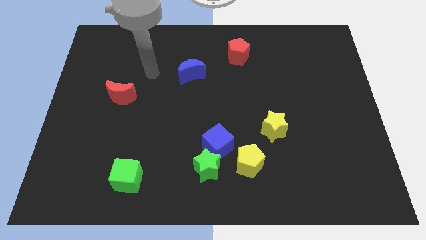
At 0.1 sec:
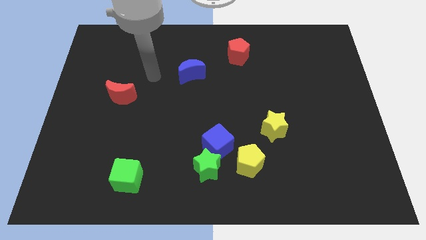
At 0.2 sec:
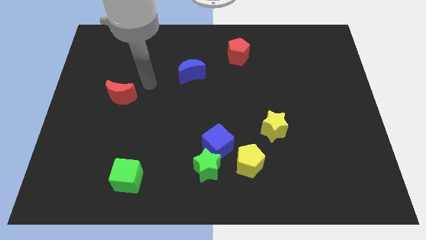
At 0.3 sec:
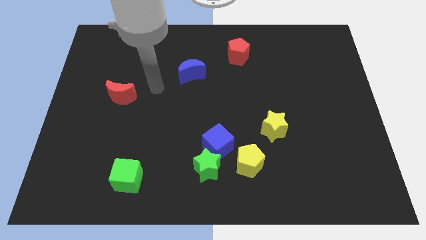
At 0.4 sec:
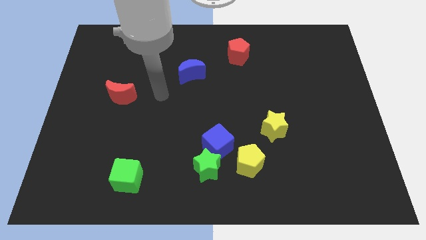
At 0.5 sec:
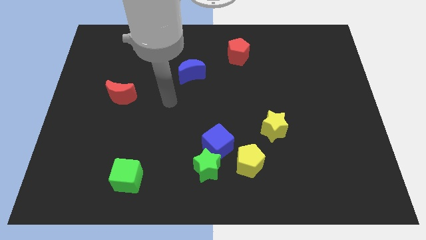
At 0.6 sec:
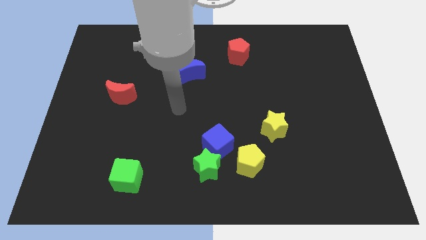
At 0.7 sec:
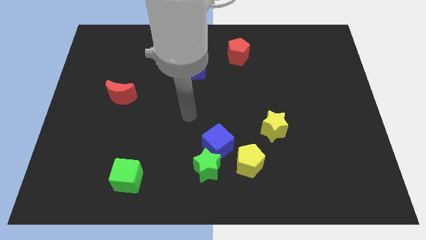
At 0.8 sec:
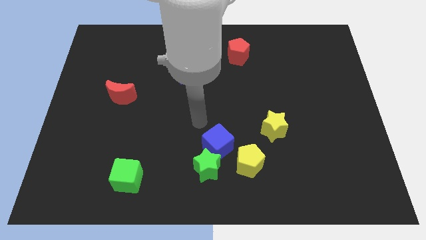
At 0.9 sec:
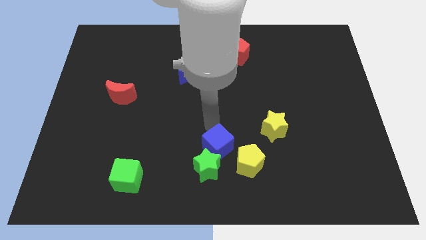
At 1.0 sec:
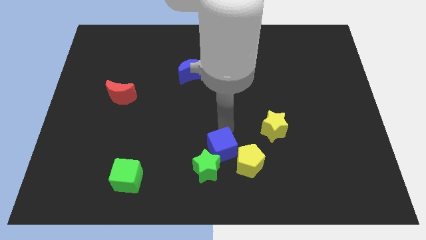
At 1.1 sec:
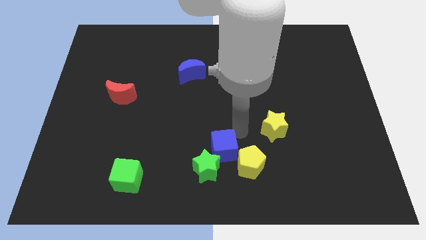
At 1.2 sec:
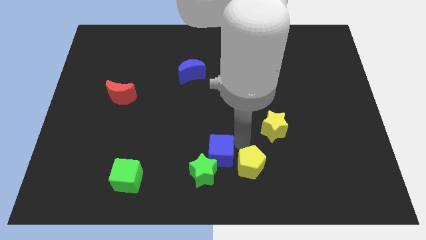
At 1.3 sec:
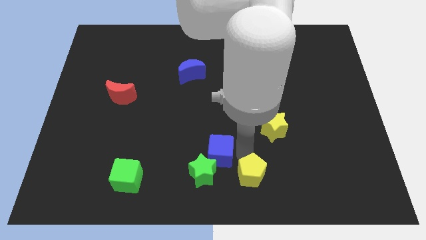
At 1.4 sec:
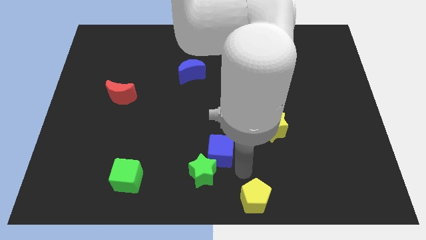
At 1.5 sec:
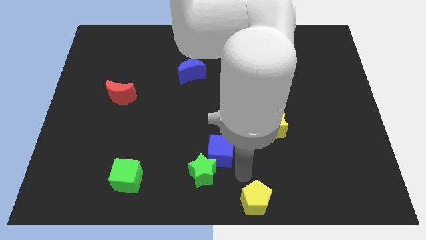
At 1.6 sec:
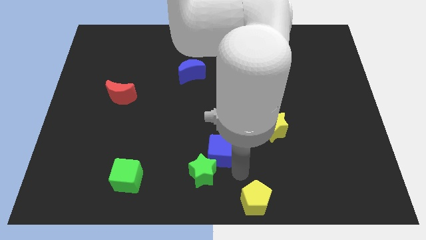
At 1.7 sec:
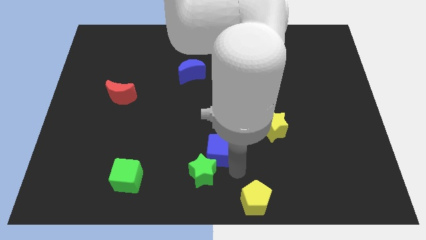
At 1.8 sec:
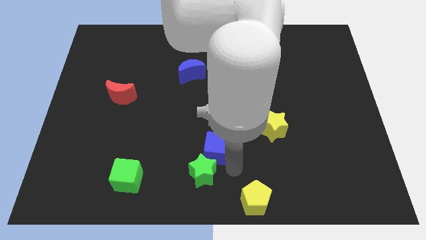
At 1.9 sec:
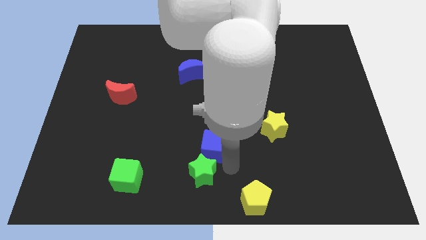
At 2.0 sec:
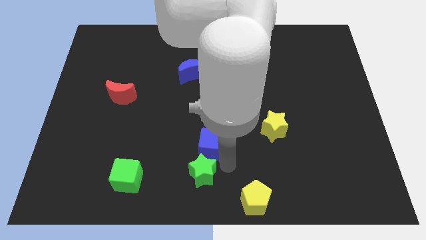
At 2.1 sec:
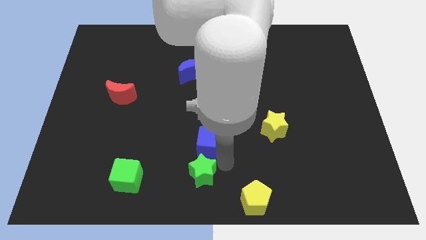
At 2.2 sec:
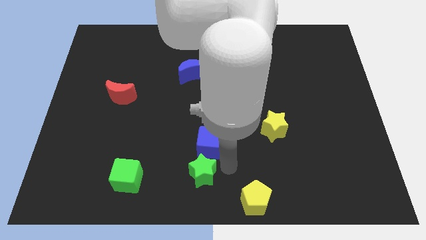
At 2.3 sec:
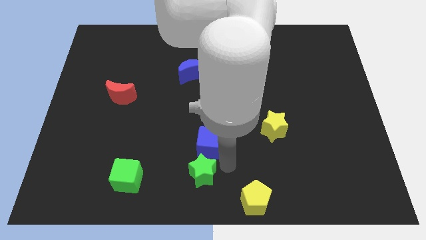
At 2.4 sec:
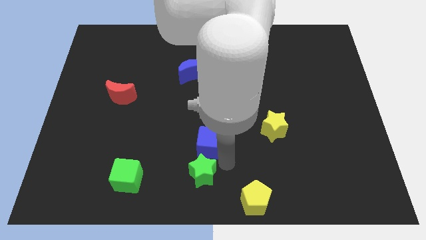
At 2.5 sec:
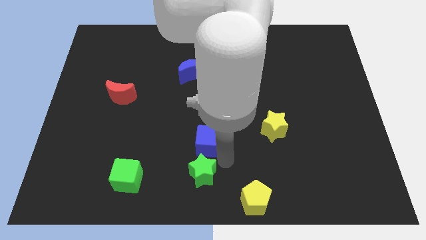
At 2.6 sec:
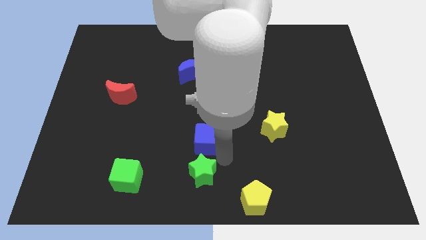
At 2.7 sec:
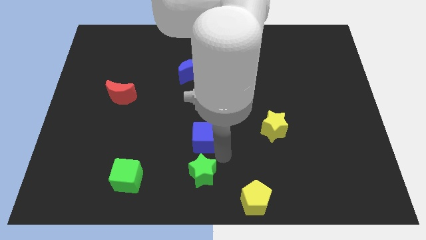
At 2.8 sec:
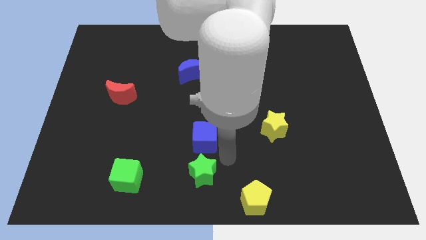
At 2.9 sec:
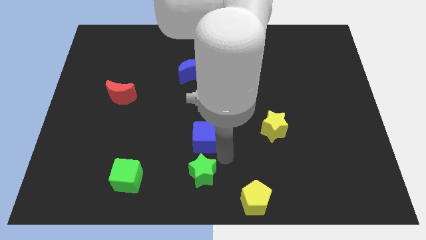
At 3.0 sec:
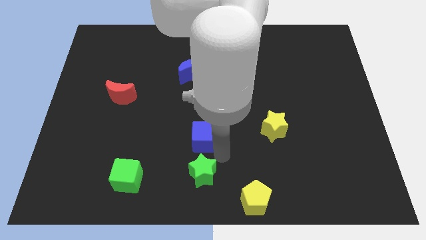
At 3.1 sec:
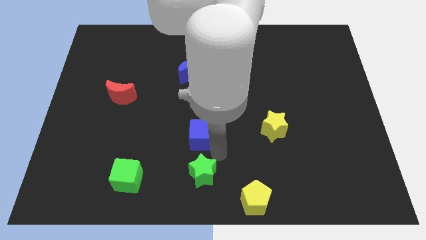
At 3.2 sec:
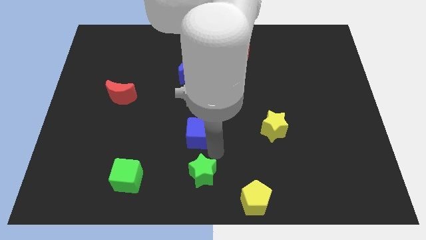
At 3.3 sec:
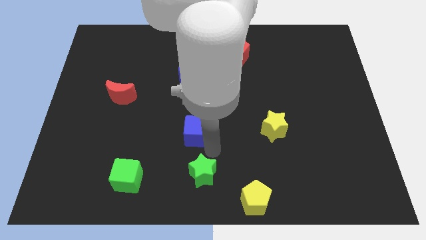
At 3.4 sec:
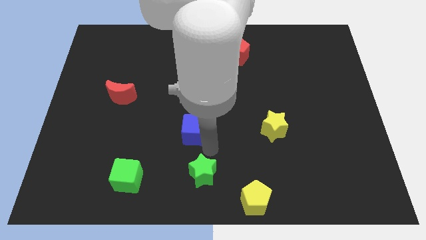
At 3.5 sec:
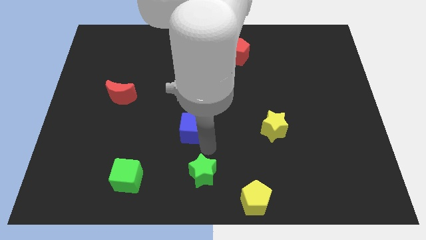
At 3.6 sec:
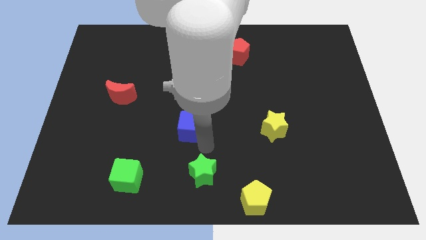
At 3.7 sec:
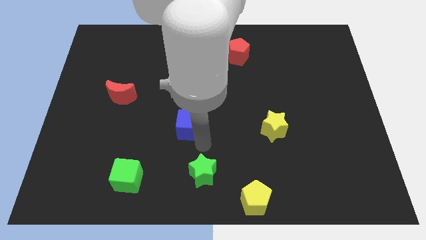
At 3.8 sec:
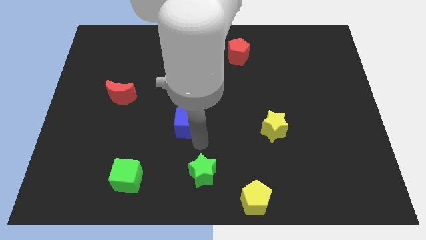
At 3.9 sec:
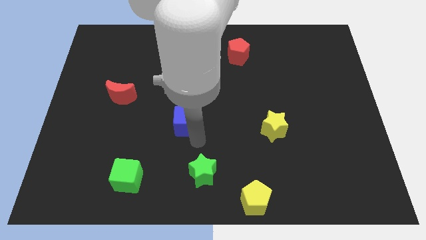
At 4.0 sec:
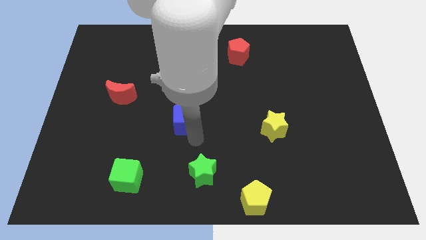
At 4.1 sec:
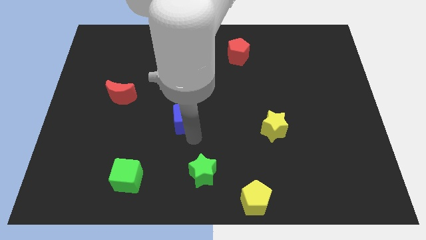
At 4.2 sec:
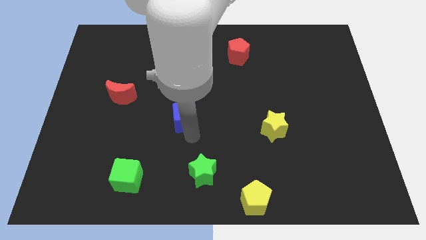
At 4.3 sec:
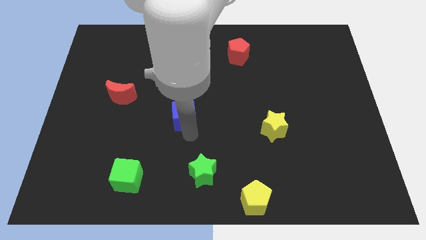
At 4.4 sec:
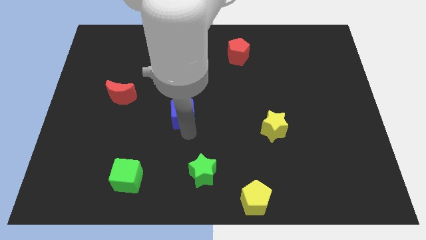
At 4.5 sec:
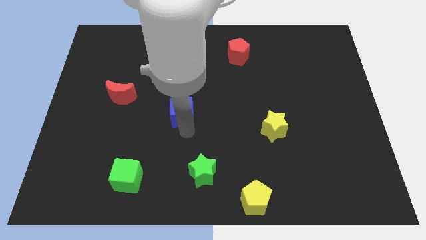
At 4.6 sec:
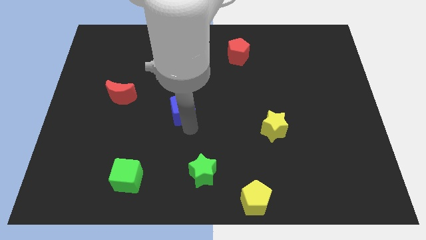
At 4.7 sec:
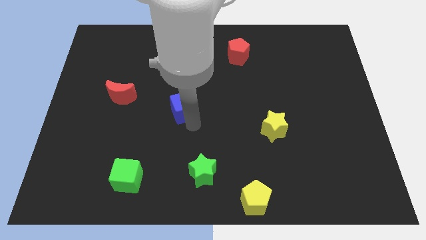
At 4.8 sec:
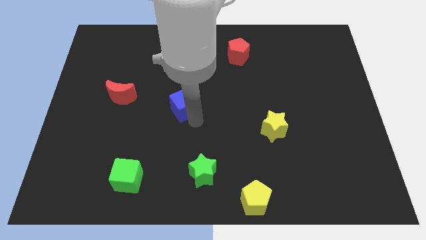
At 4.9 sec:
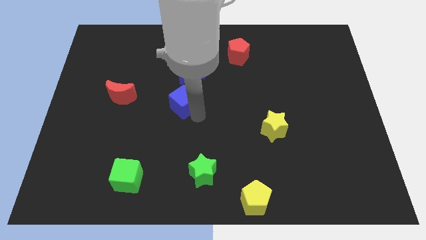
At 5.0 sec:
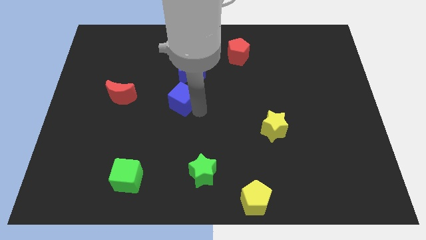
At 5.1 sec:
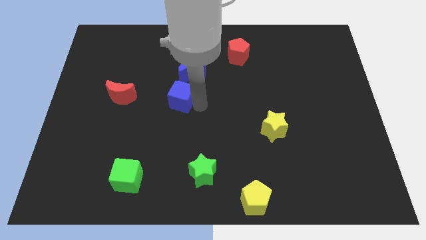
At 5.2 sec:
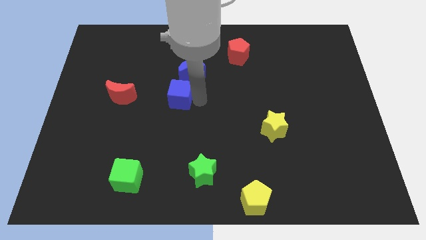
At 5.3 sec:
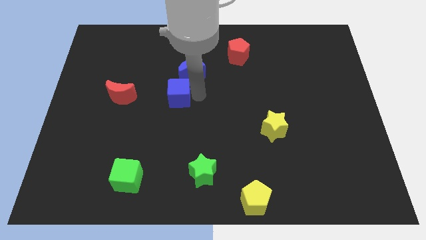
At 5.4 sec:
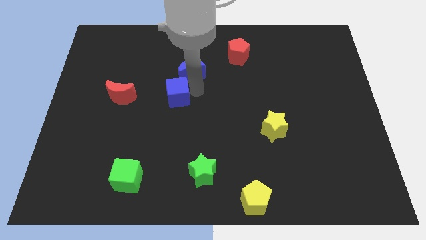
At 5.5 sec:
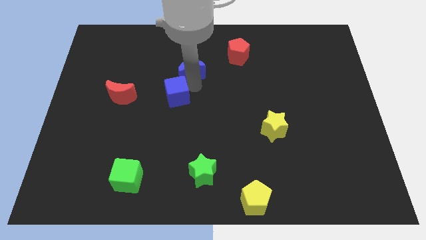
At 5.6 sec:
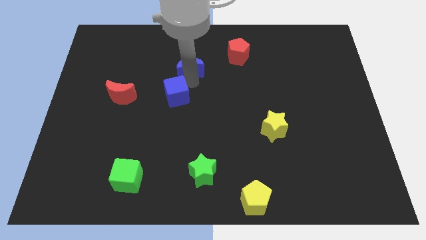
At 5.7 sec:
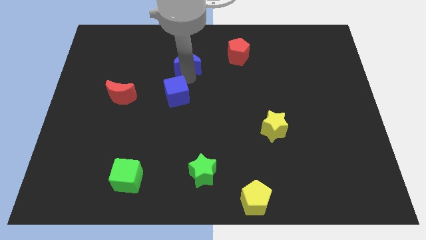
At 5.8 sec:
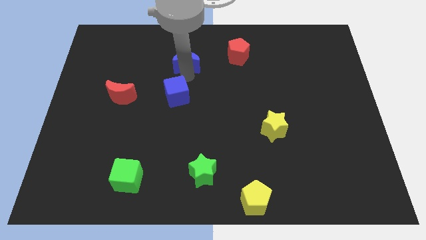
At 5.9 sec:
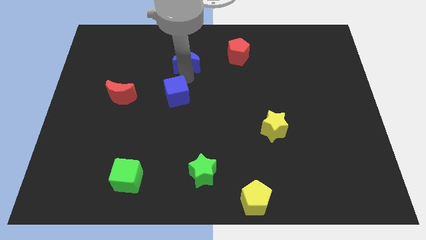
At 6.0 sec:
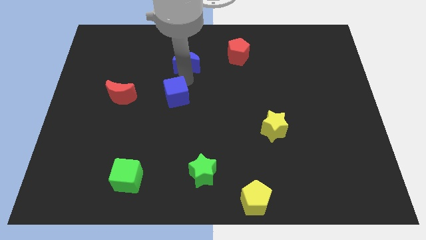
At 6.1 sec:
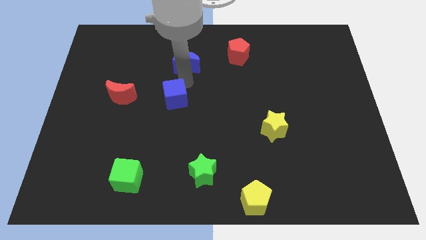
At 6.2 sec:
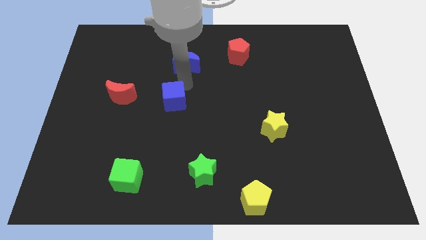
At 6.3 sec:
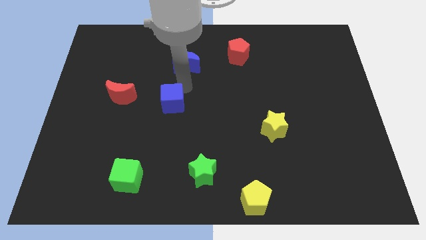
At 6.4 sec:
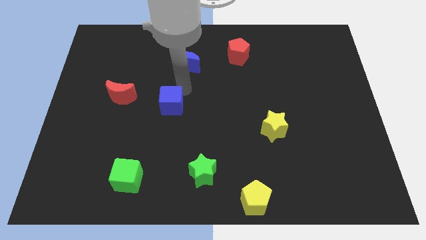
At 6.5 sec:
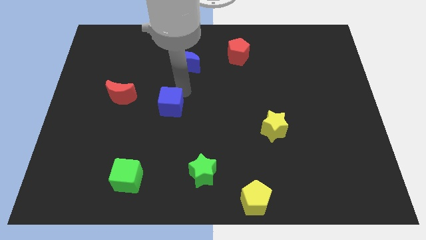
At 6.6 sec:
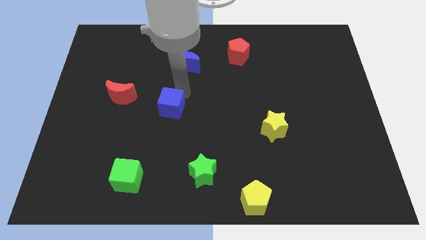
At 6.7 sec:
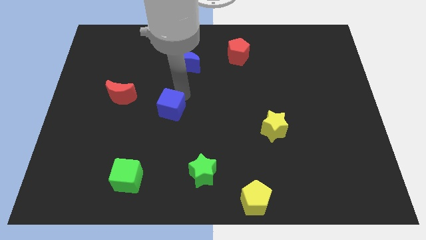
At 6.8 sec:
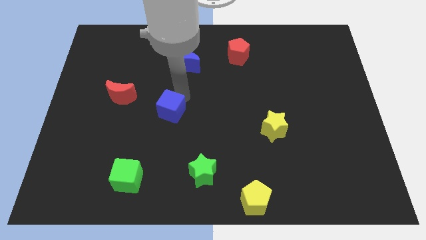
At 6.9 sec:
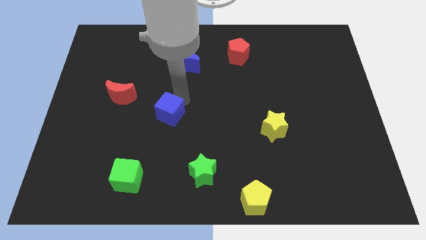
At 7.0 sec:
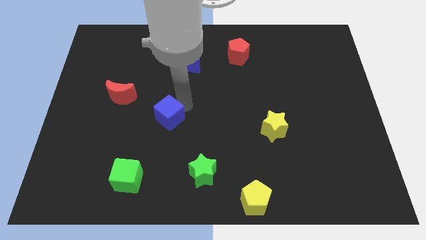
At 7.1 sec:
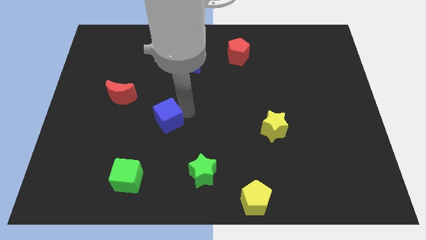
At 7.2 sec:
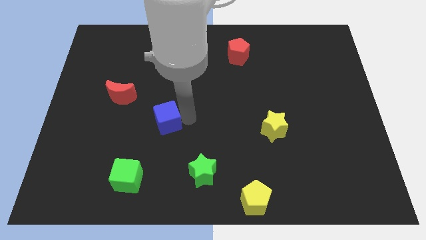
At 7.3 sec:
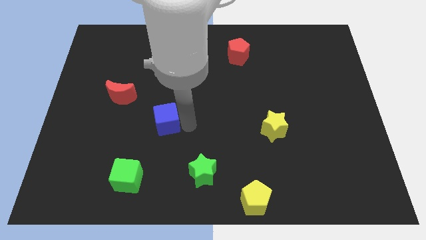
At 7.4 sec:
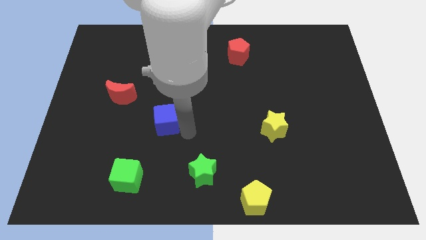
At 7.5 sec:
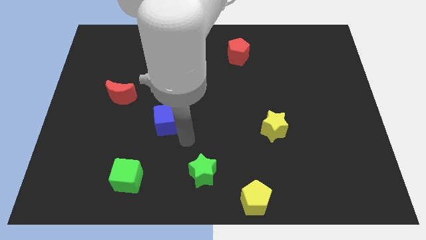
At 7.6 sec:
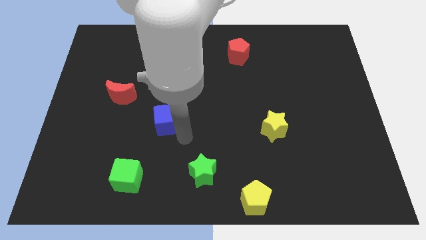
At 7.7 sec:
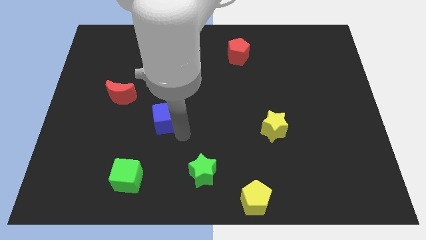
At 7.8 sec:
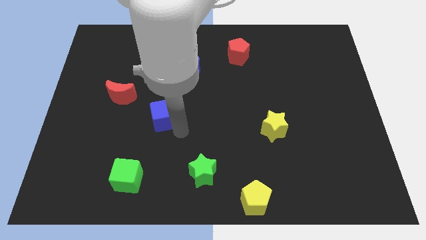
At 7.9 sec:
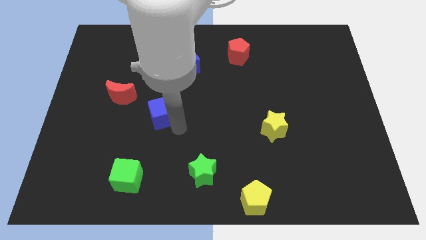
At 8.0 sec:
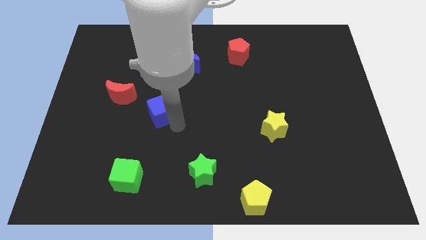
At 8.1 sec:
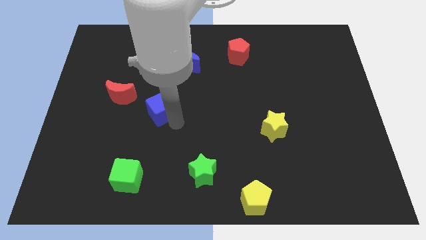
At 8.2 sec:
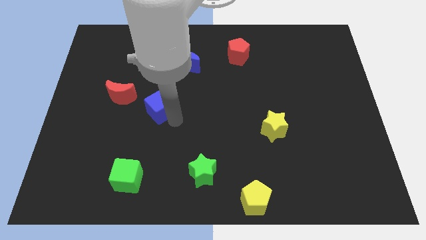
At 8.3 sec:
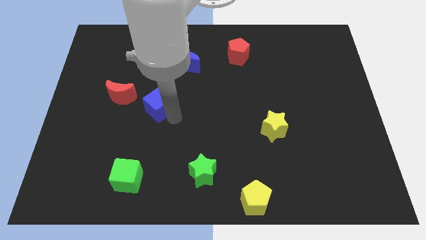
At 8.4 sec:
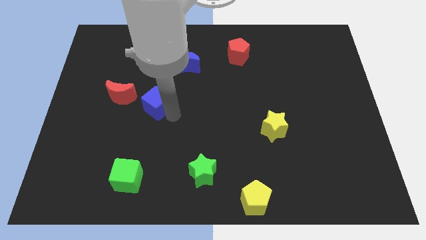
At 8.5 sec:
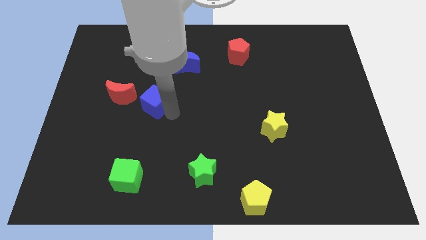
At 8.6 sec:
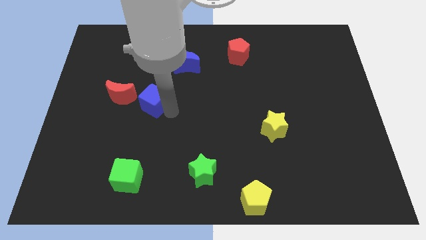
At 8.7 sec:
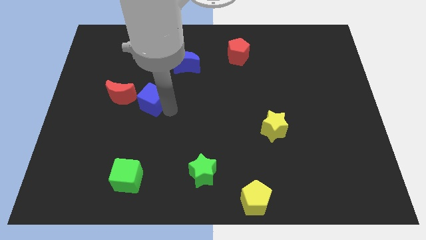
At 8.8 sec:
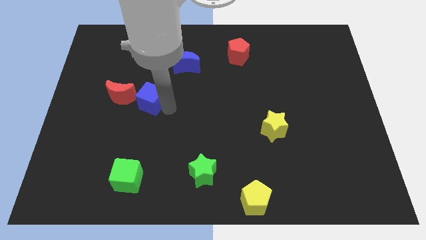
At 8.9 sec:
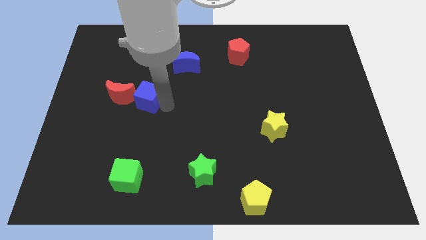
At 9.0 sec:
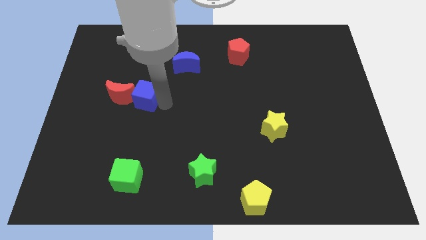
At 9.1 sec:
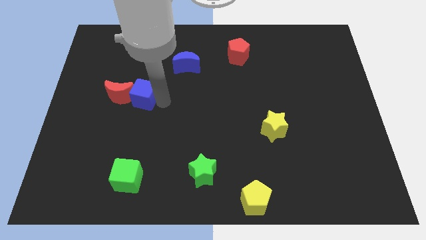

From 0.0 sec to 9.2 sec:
move the blue cube towards the red moon
